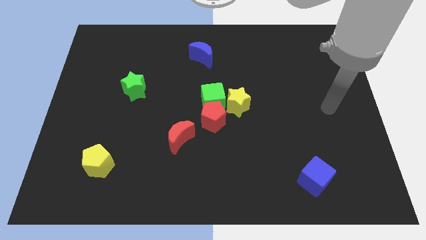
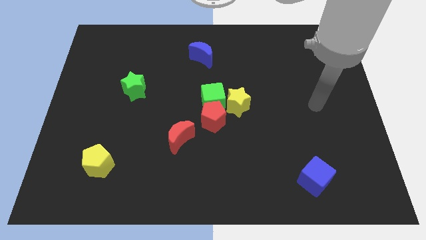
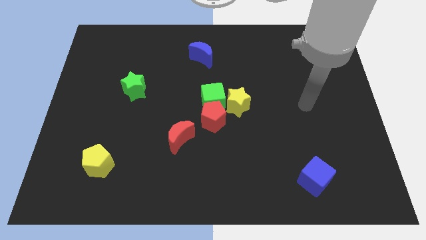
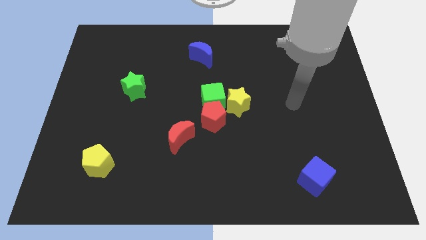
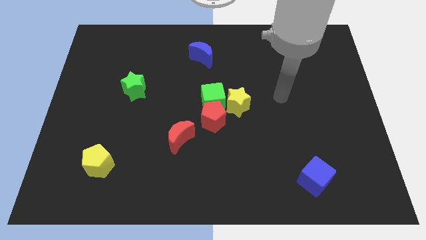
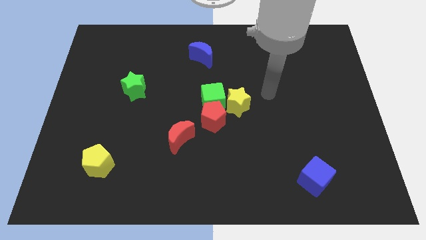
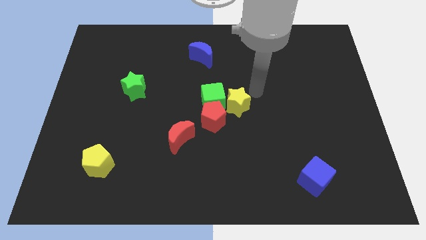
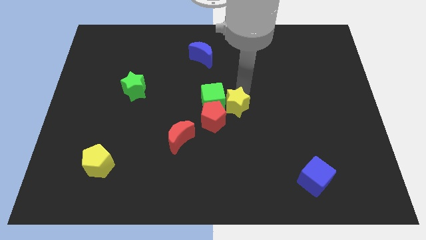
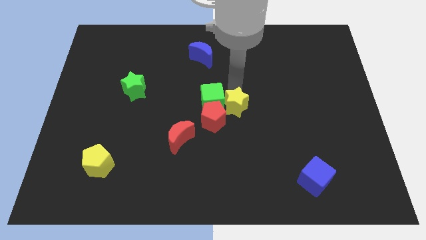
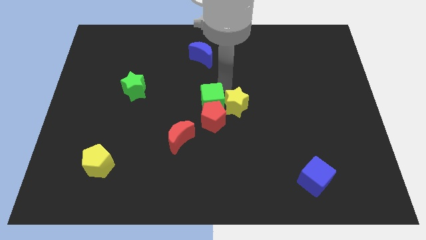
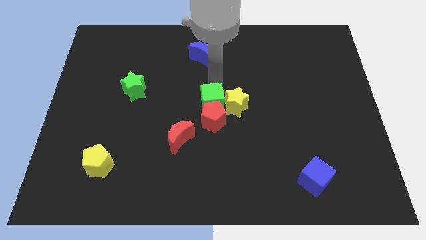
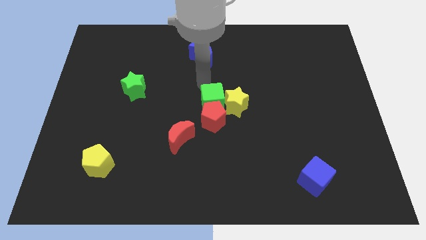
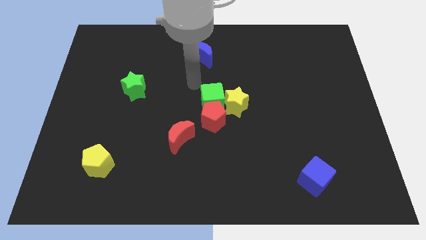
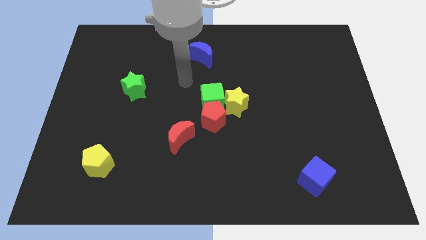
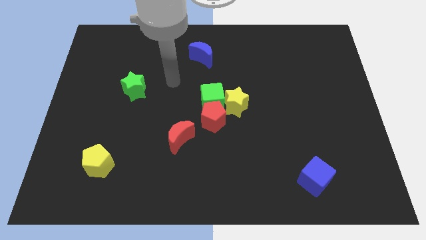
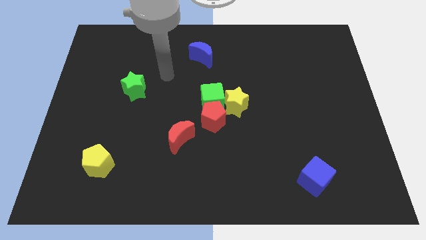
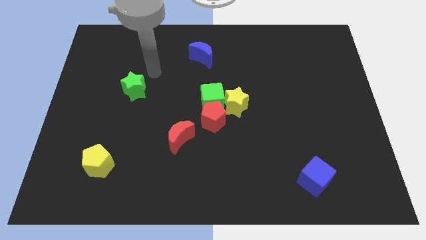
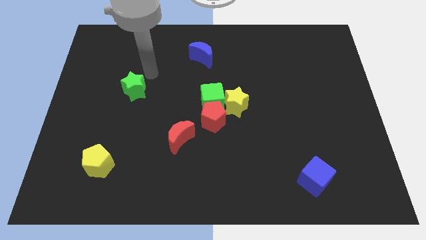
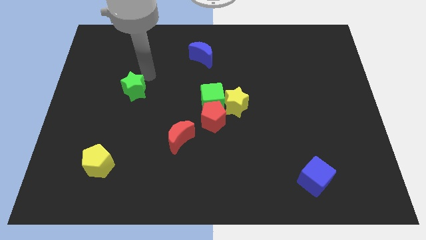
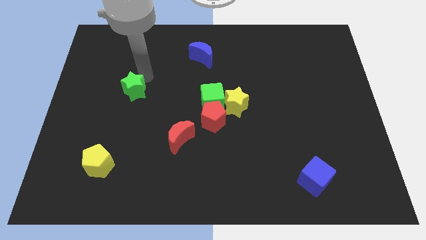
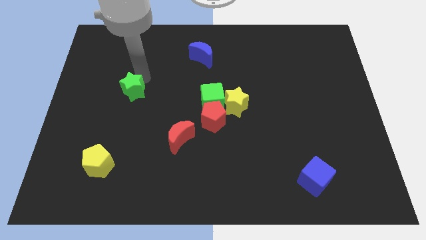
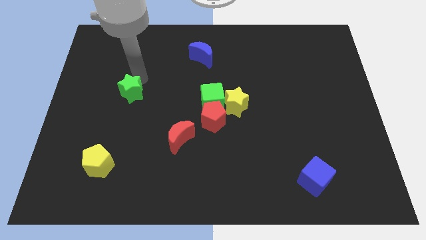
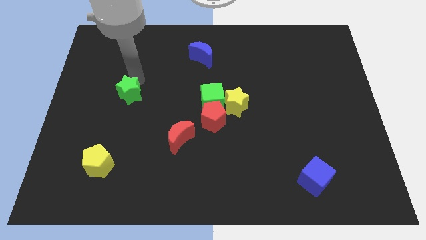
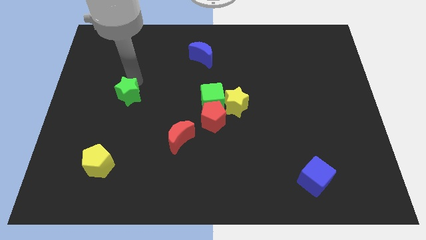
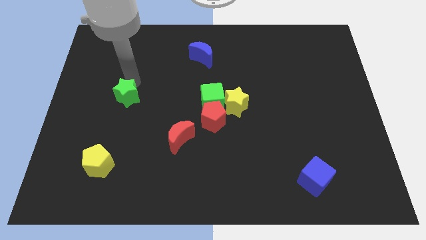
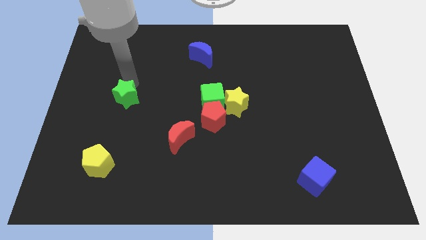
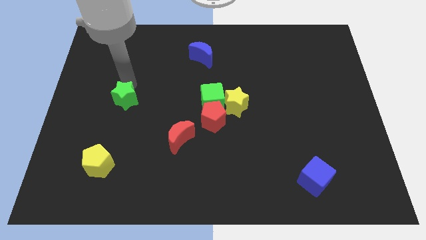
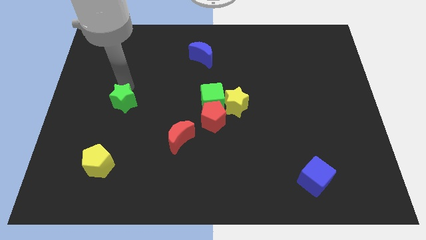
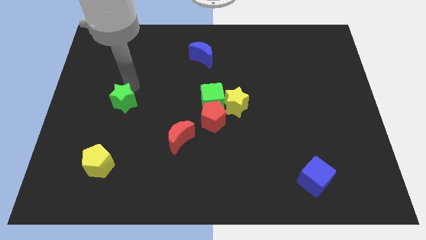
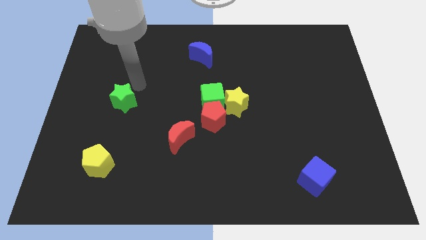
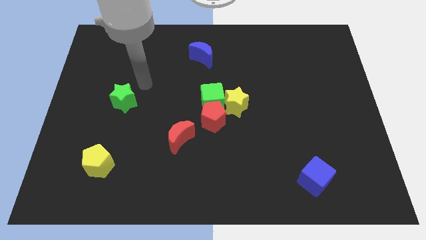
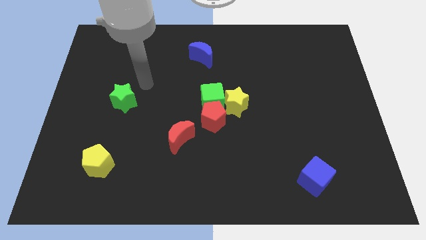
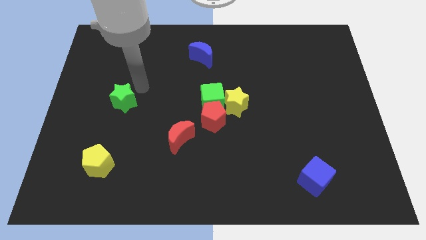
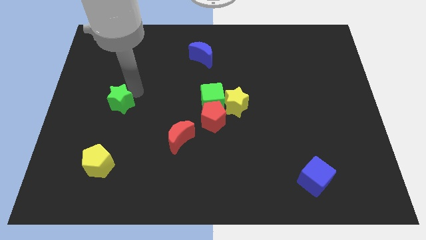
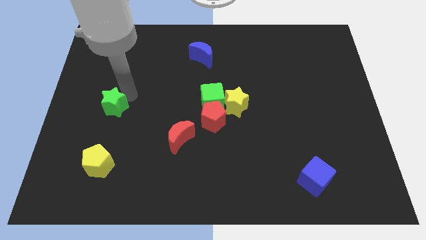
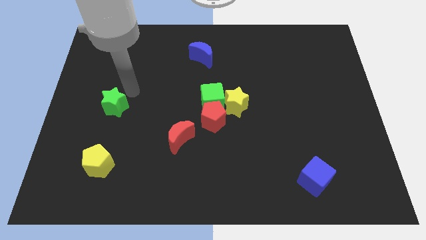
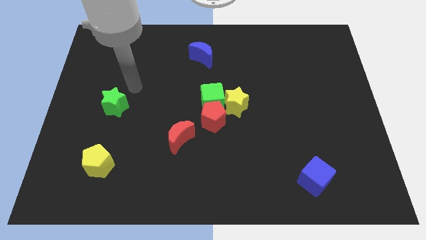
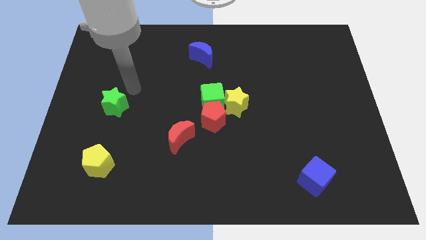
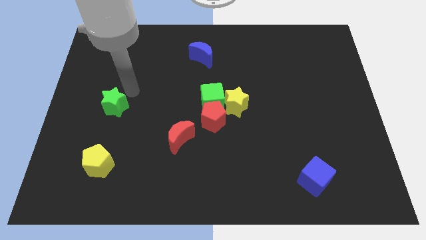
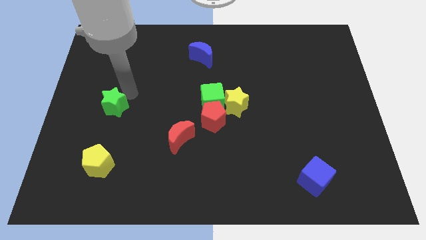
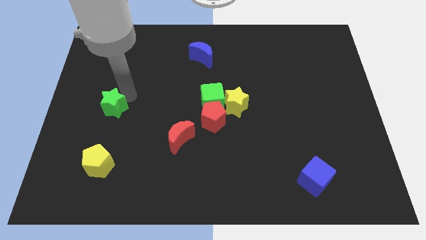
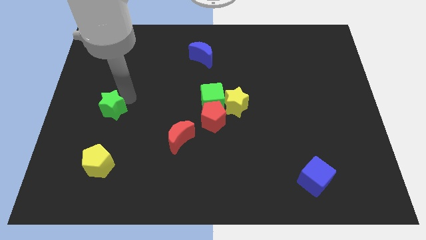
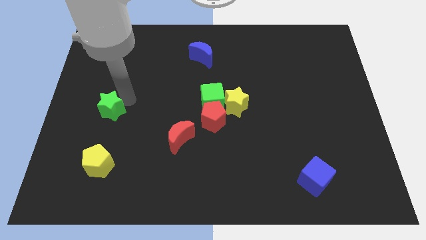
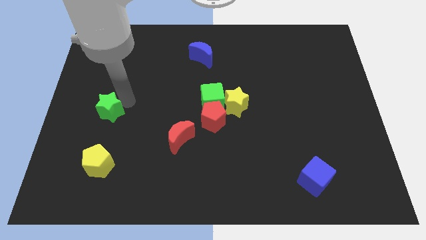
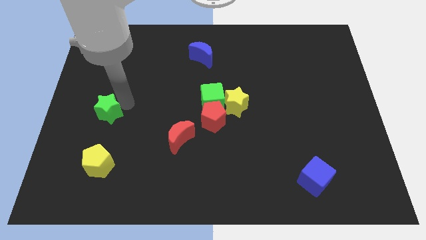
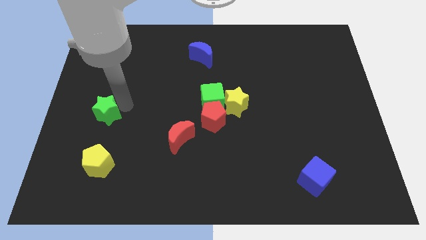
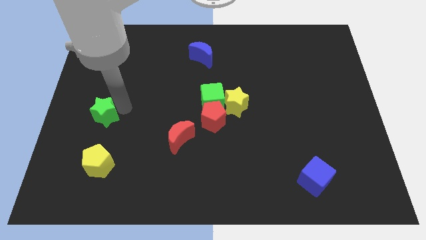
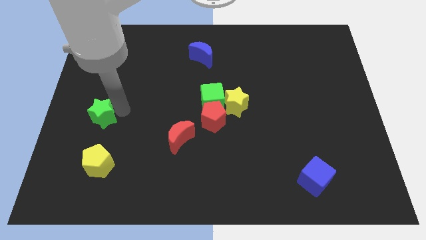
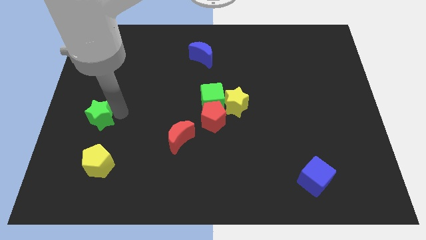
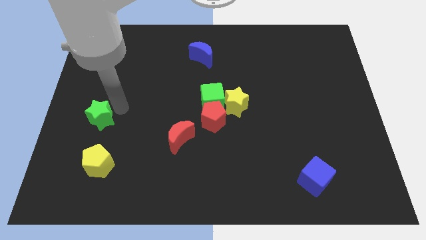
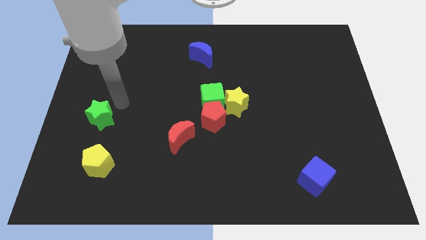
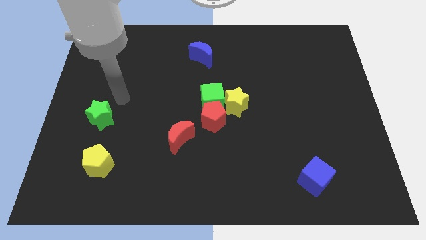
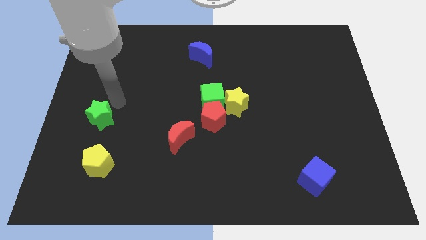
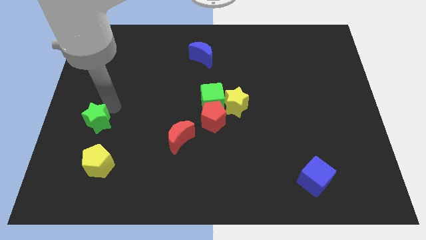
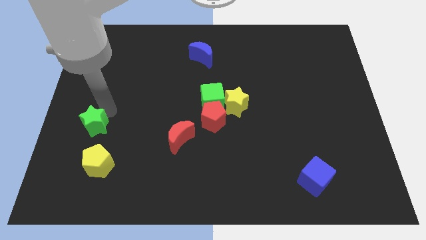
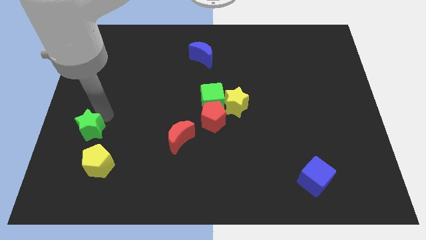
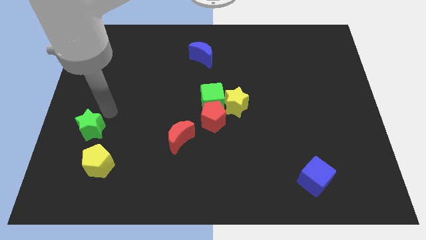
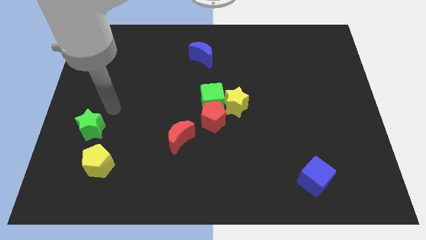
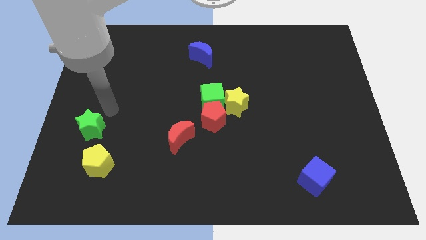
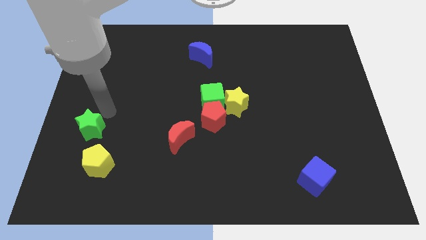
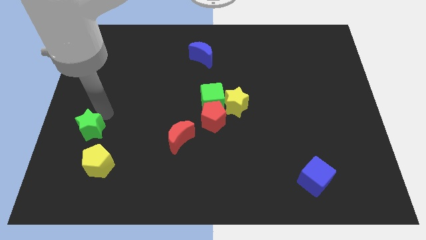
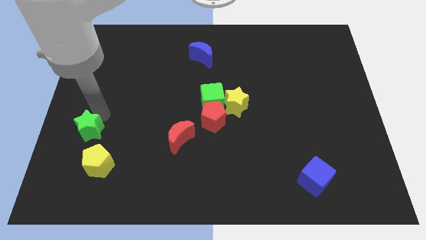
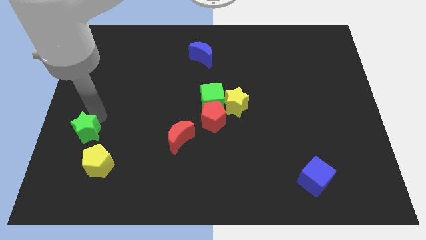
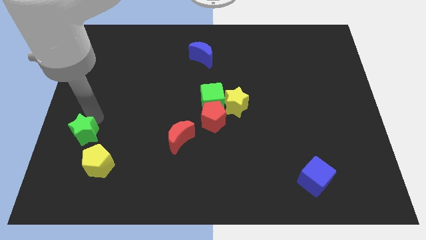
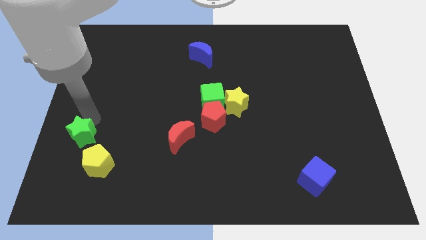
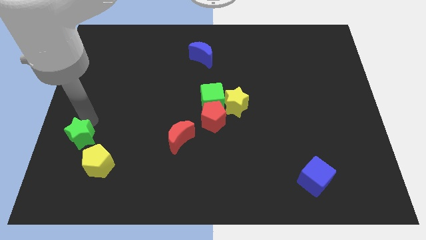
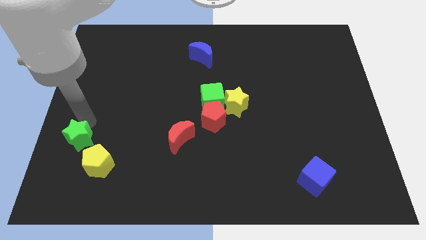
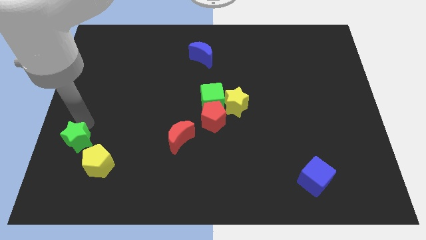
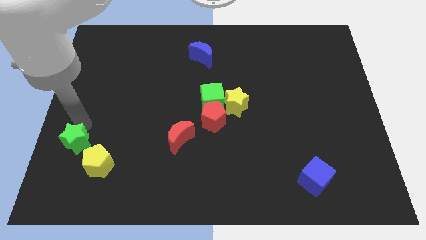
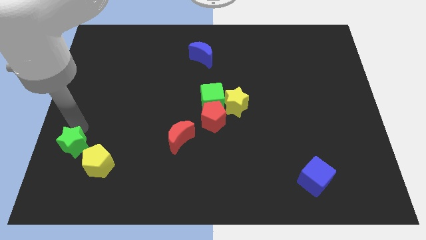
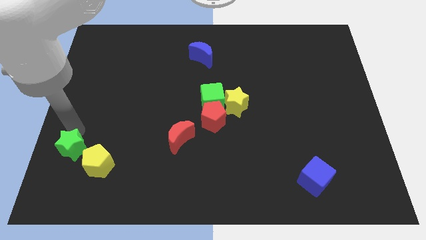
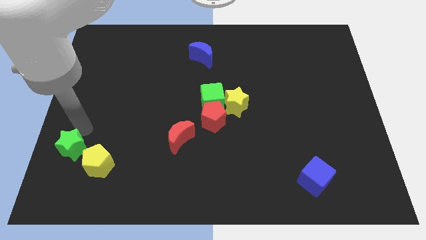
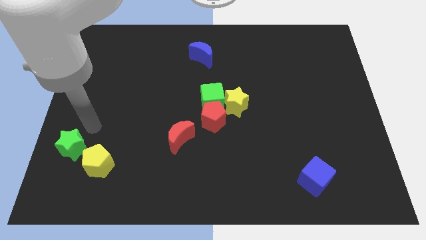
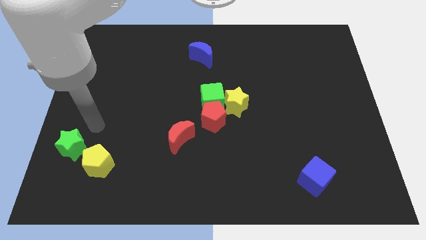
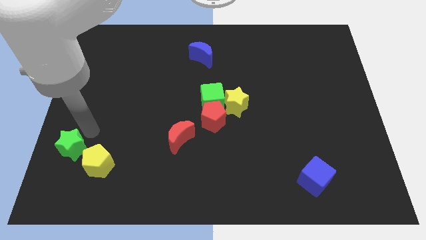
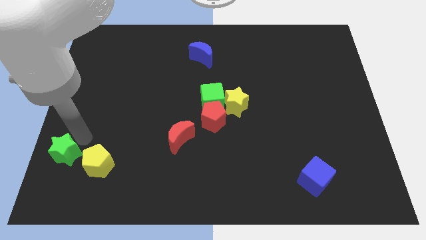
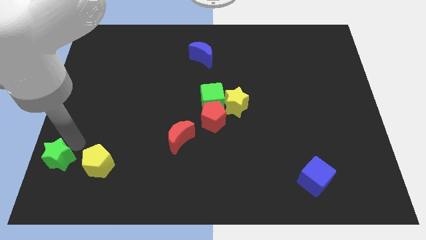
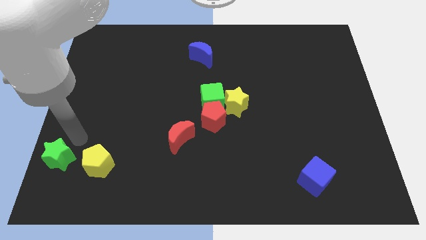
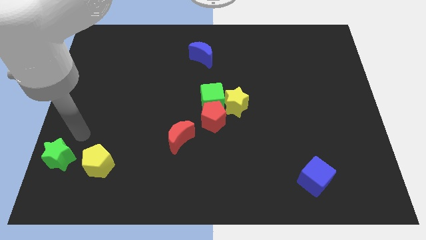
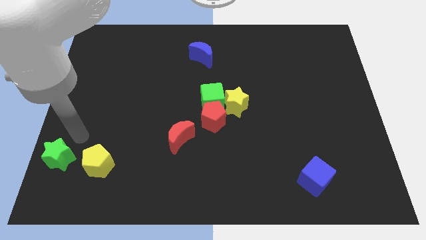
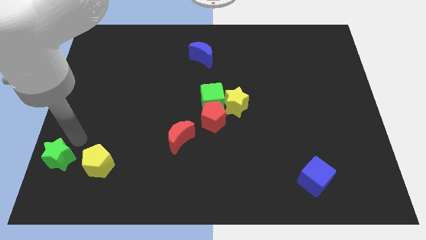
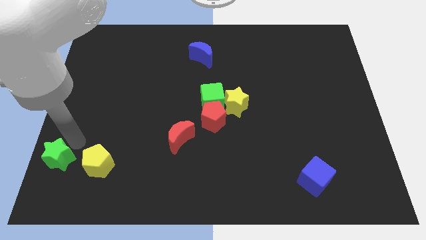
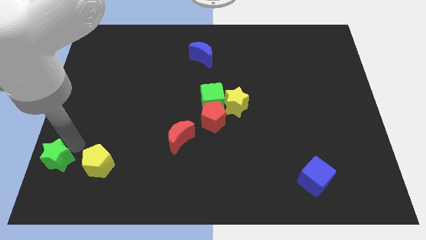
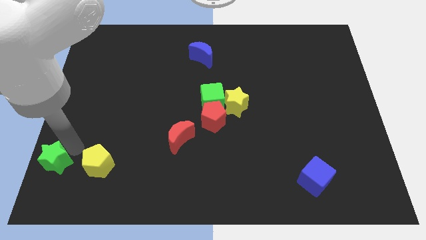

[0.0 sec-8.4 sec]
move the green star to the lower left corner
